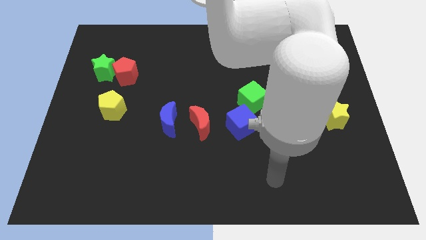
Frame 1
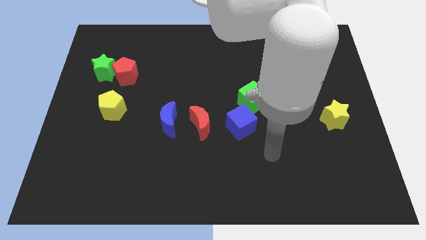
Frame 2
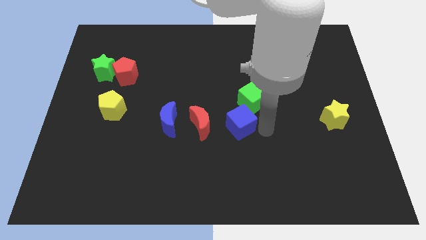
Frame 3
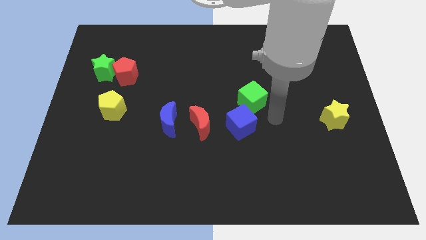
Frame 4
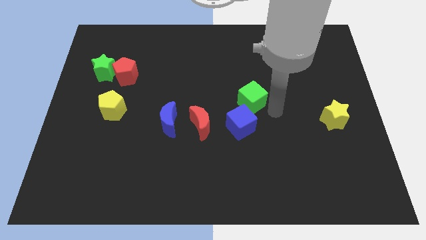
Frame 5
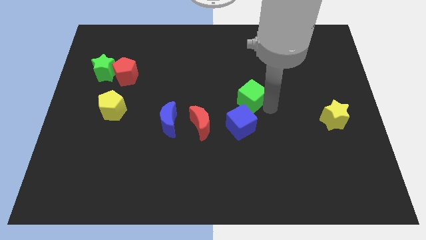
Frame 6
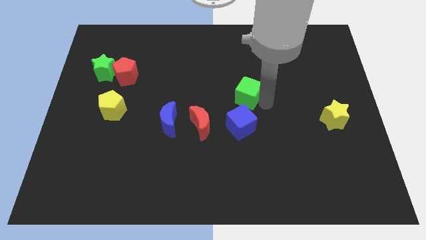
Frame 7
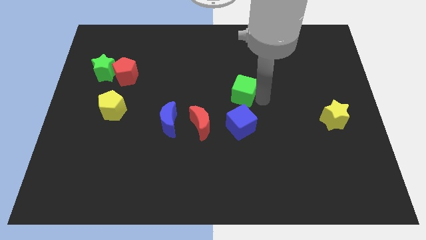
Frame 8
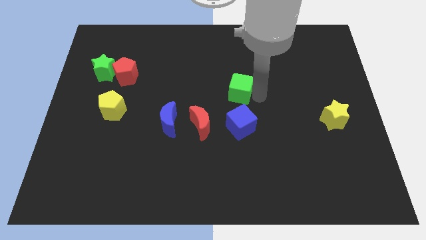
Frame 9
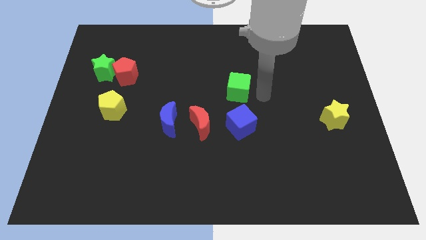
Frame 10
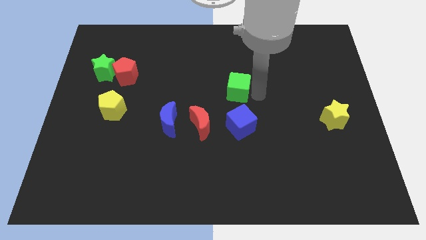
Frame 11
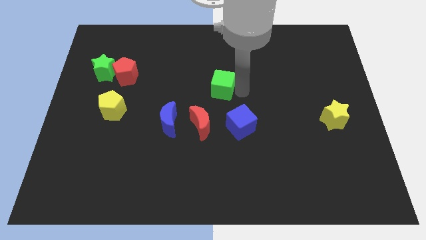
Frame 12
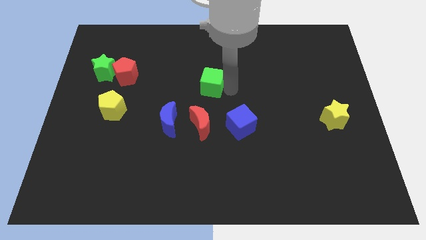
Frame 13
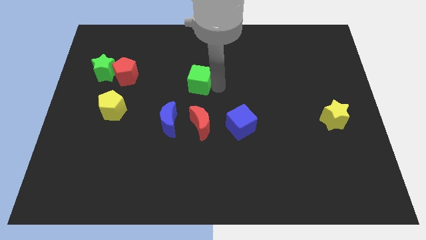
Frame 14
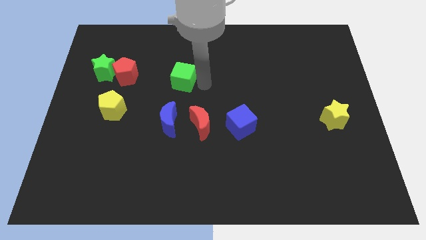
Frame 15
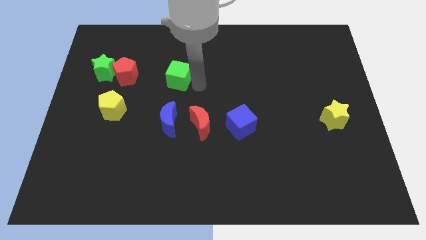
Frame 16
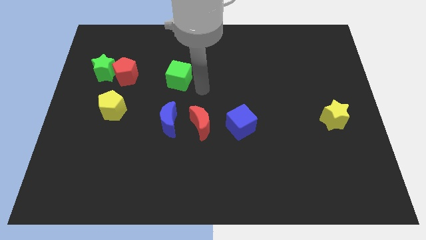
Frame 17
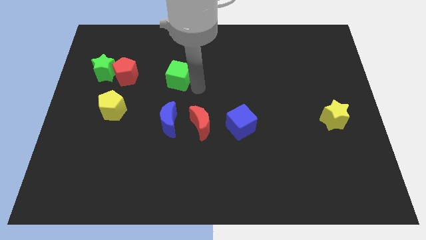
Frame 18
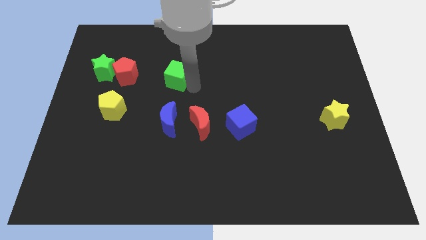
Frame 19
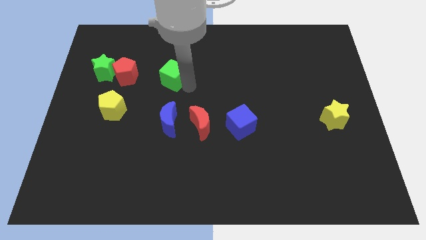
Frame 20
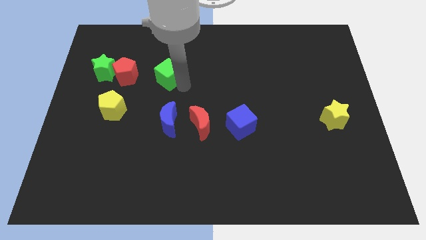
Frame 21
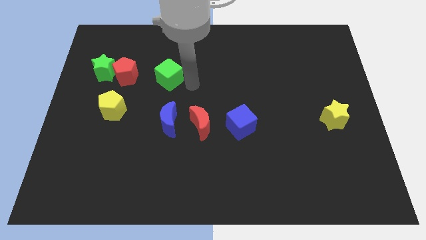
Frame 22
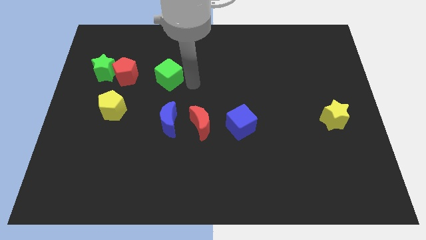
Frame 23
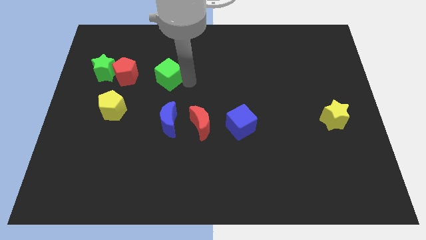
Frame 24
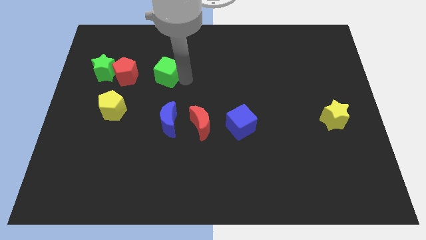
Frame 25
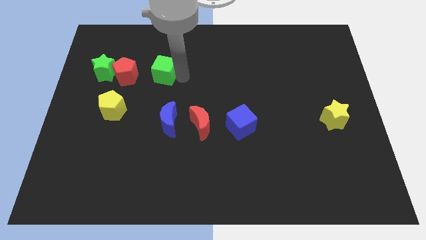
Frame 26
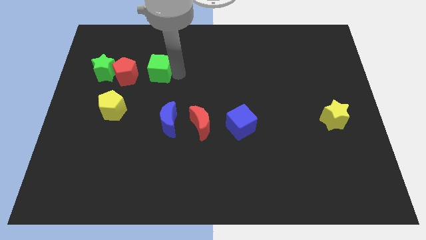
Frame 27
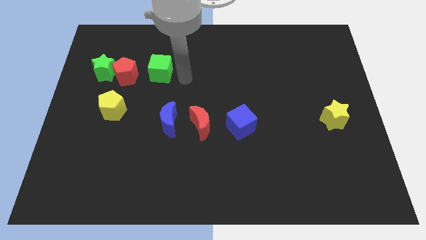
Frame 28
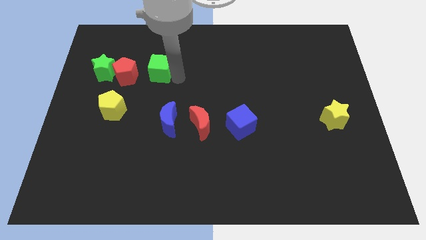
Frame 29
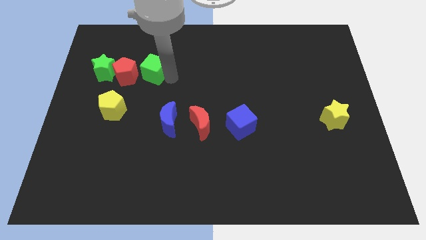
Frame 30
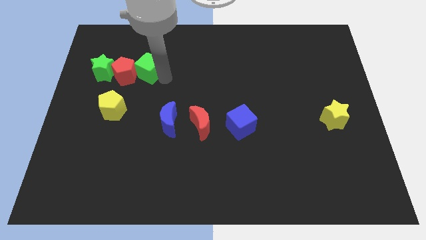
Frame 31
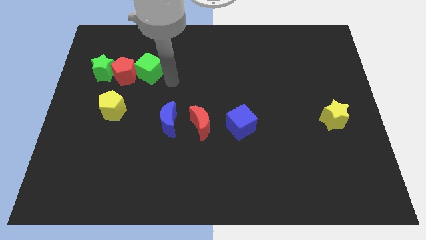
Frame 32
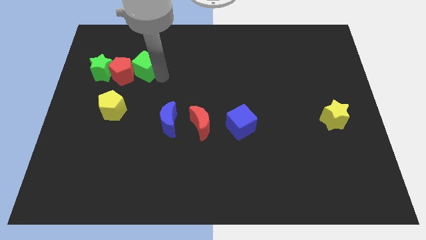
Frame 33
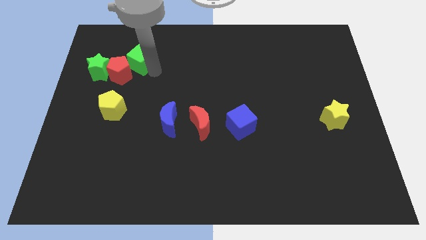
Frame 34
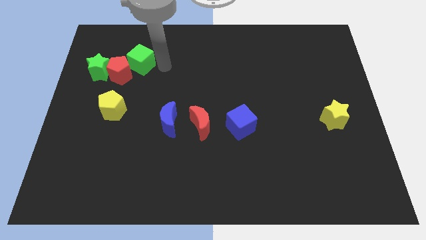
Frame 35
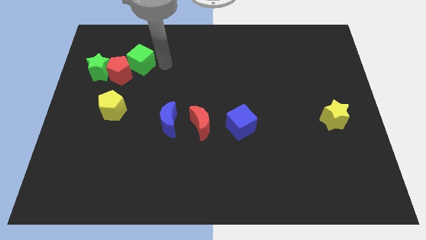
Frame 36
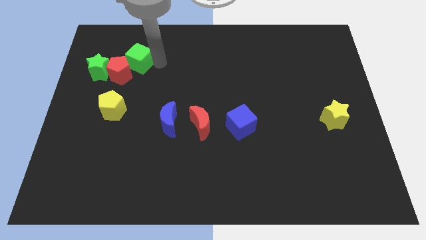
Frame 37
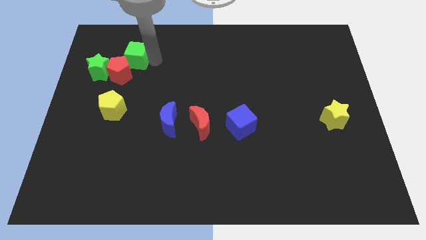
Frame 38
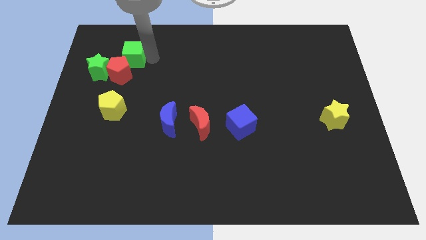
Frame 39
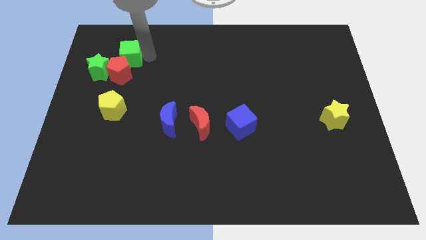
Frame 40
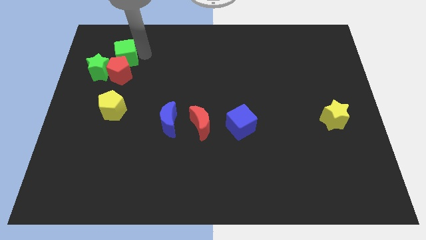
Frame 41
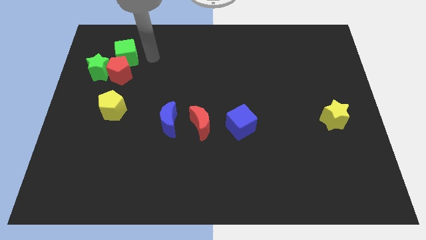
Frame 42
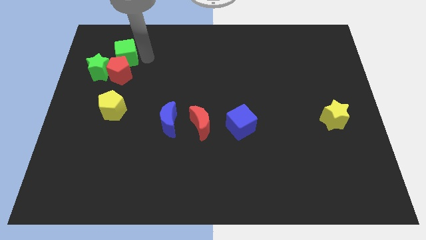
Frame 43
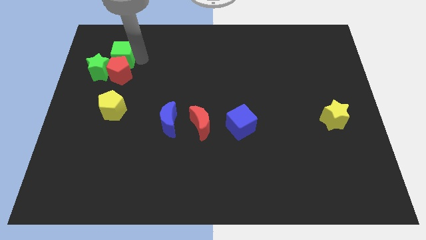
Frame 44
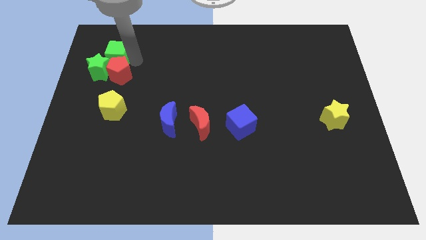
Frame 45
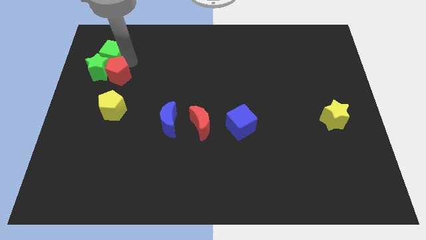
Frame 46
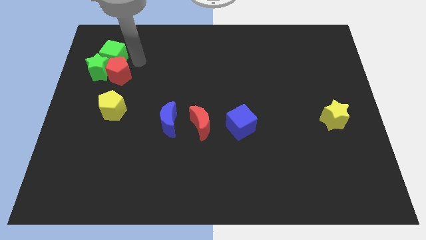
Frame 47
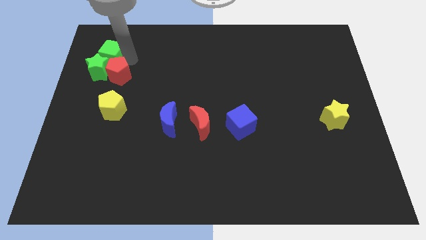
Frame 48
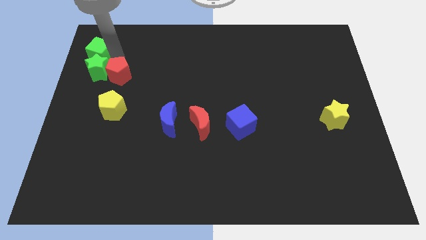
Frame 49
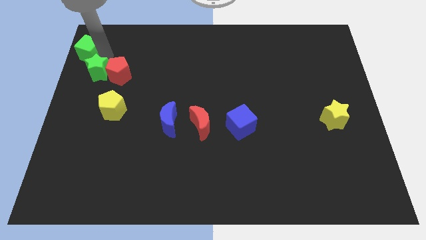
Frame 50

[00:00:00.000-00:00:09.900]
put the green cube to the top left

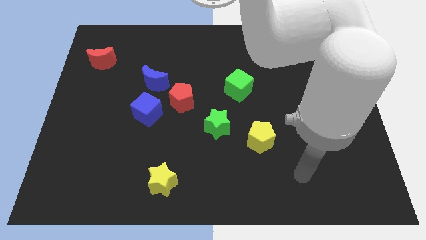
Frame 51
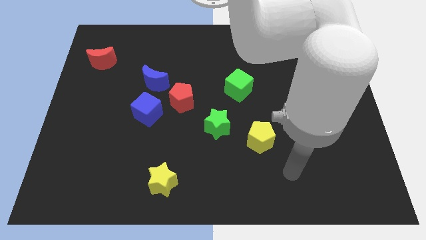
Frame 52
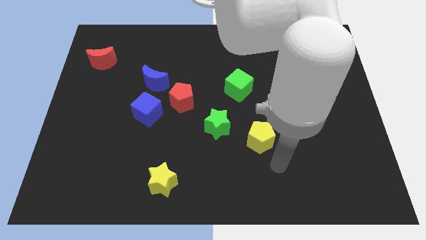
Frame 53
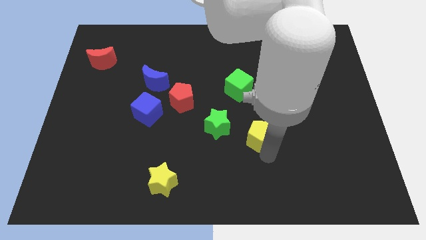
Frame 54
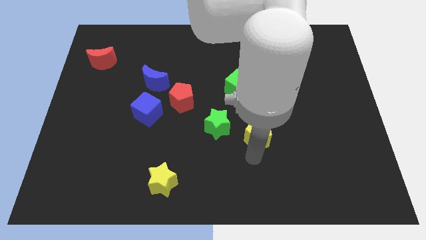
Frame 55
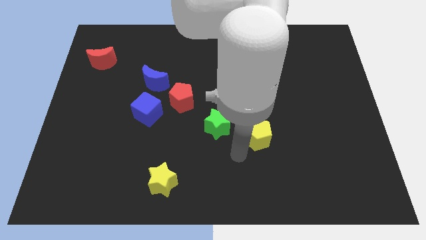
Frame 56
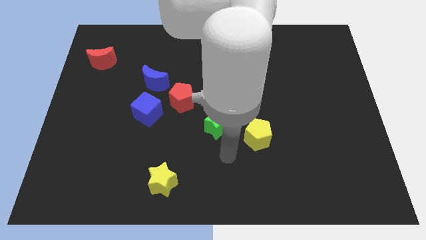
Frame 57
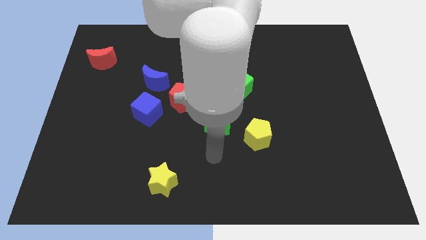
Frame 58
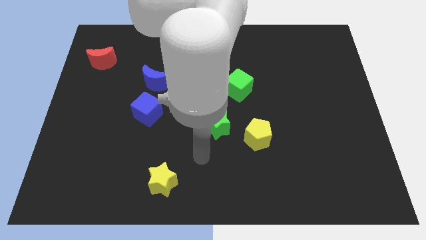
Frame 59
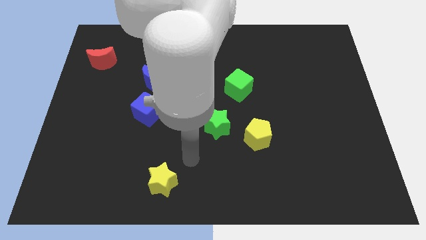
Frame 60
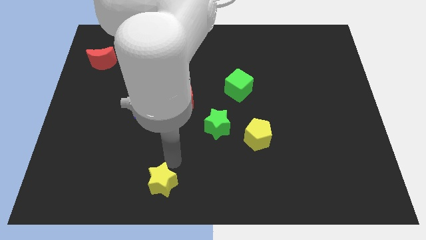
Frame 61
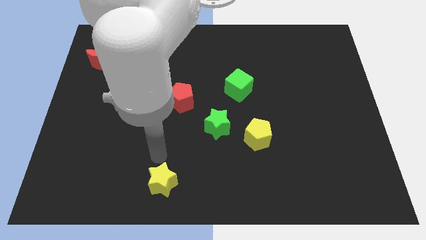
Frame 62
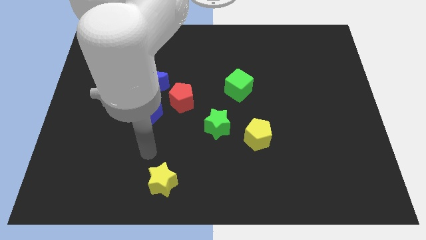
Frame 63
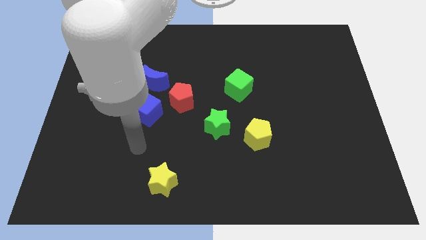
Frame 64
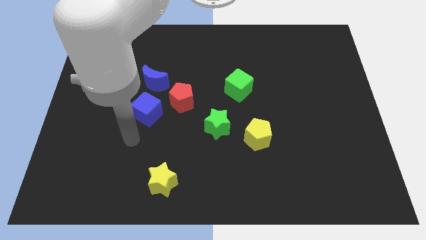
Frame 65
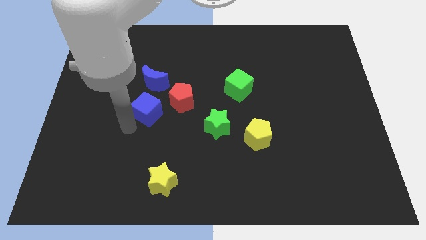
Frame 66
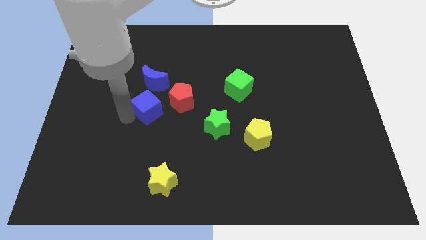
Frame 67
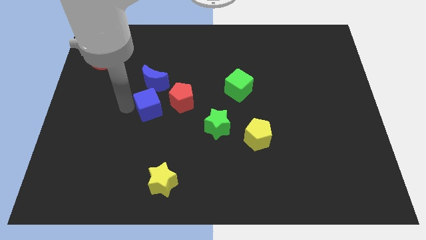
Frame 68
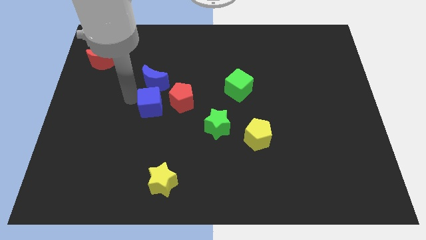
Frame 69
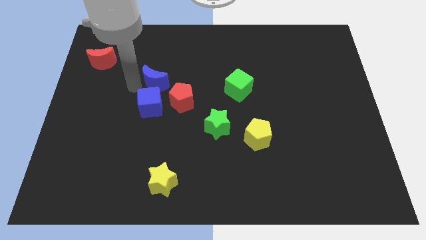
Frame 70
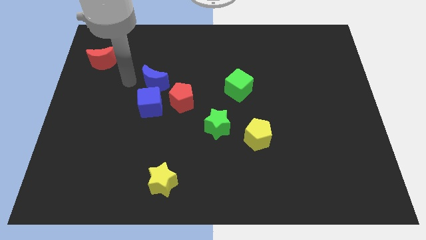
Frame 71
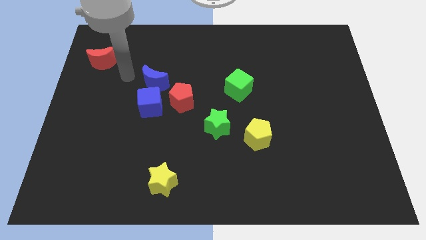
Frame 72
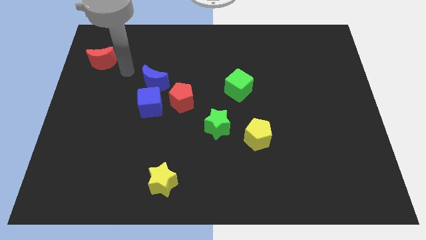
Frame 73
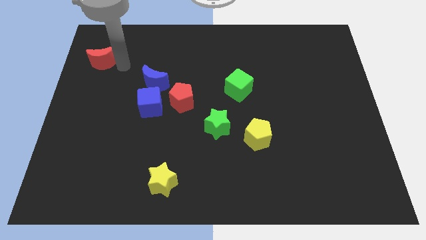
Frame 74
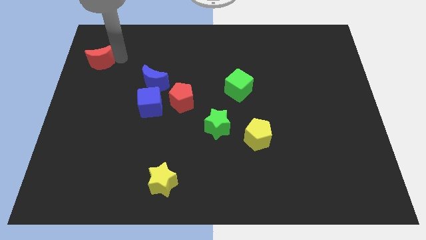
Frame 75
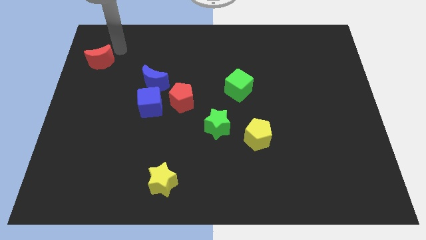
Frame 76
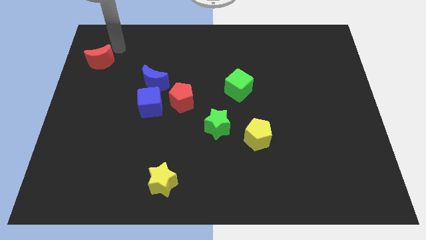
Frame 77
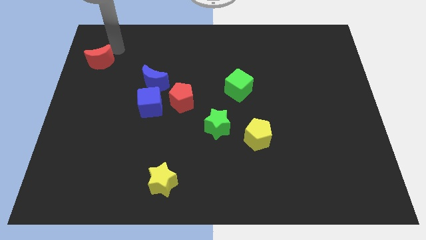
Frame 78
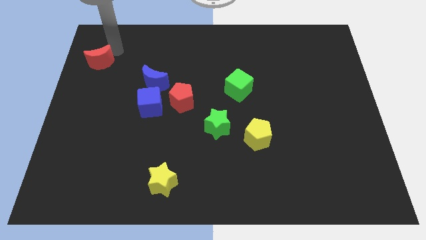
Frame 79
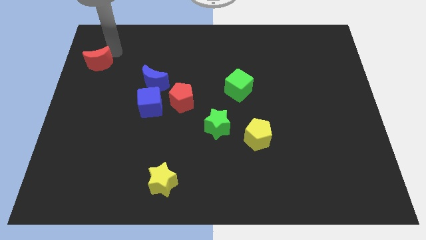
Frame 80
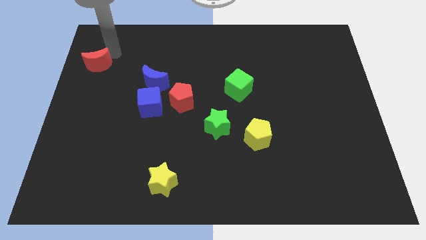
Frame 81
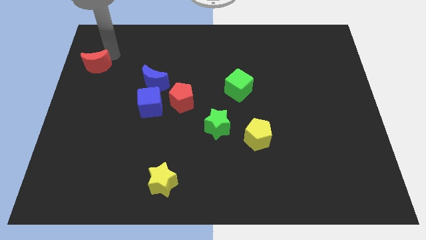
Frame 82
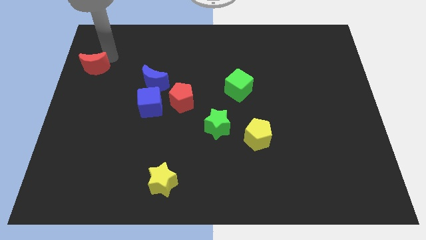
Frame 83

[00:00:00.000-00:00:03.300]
move the red moon to the center left
